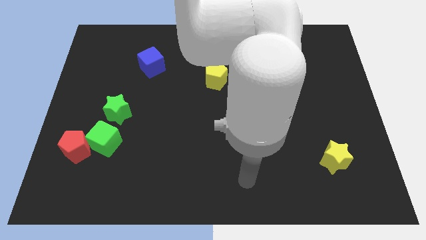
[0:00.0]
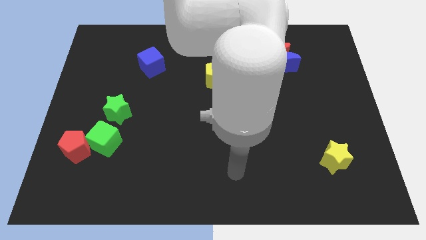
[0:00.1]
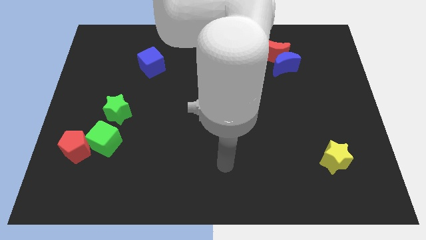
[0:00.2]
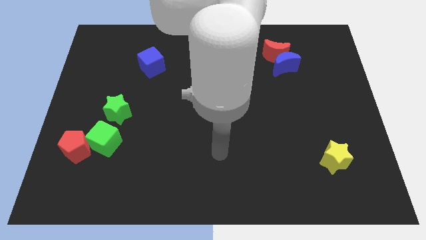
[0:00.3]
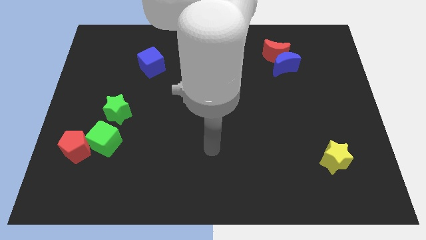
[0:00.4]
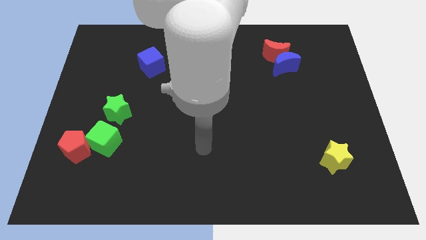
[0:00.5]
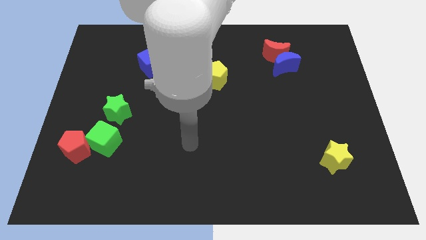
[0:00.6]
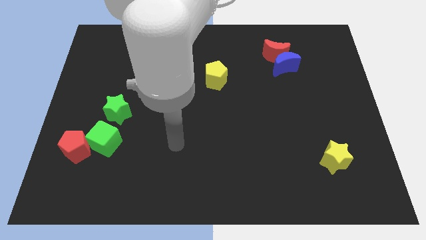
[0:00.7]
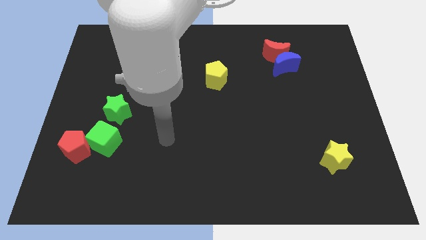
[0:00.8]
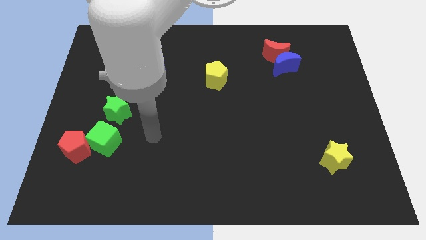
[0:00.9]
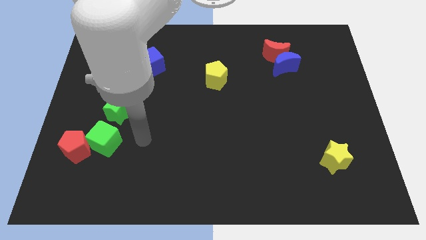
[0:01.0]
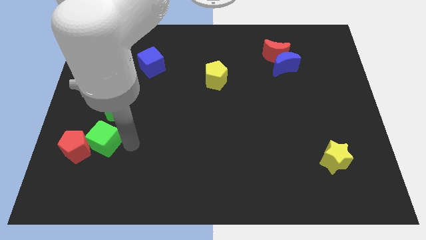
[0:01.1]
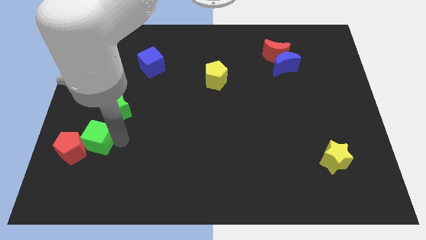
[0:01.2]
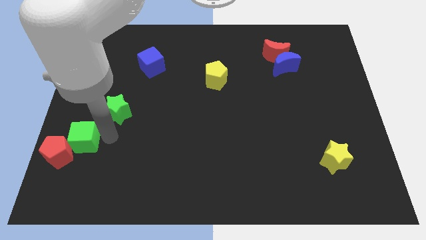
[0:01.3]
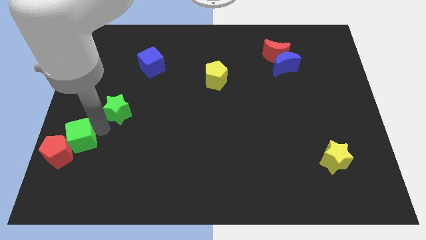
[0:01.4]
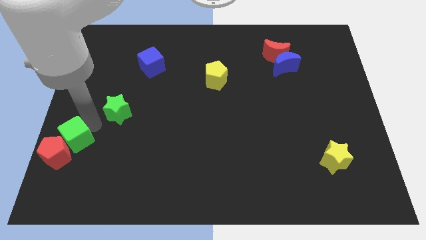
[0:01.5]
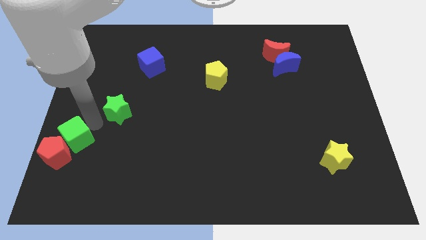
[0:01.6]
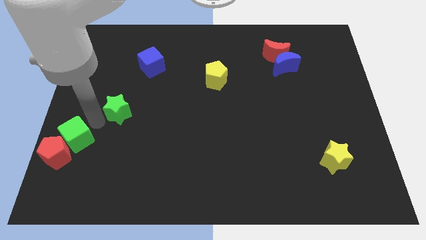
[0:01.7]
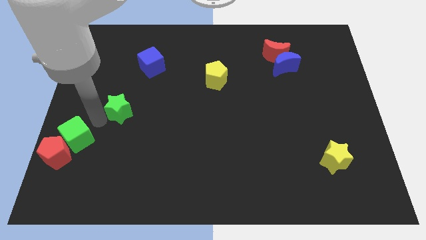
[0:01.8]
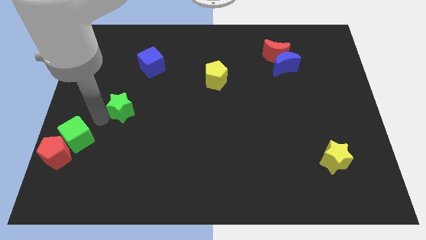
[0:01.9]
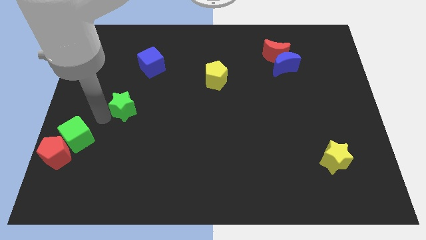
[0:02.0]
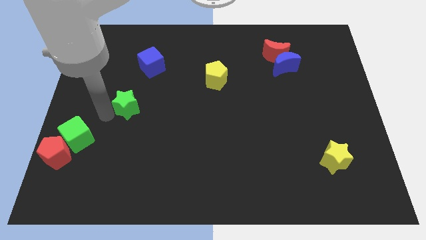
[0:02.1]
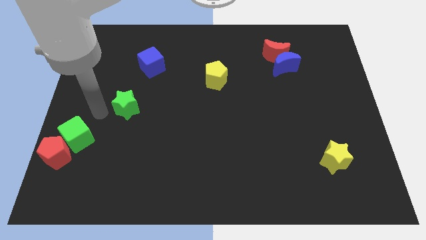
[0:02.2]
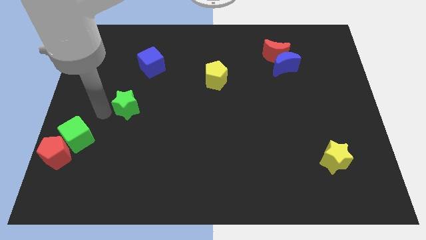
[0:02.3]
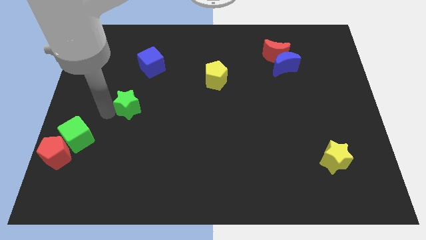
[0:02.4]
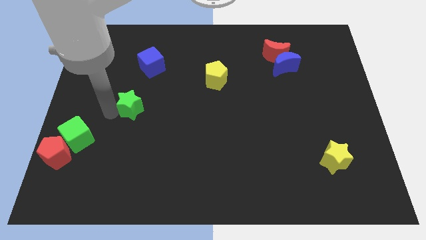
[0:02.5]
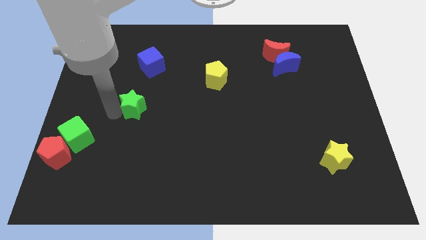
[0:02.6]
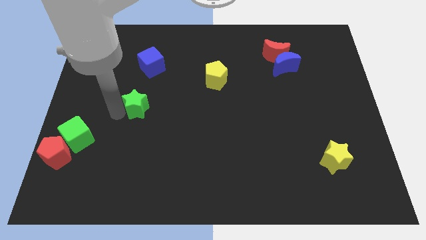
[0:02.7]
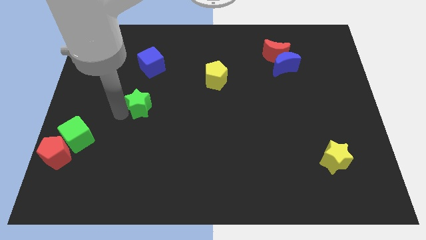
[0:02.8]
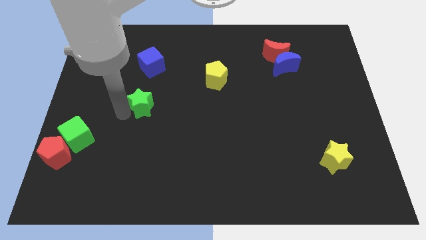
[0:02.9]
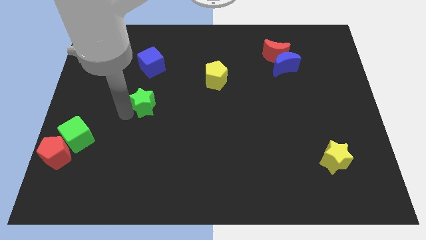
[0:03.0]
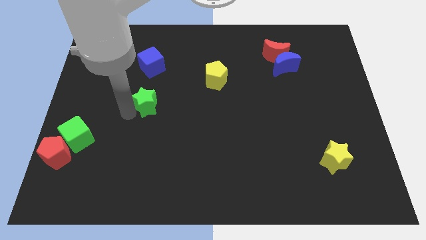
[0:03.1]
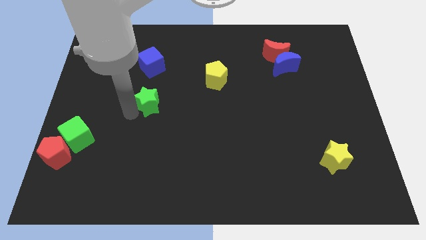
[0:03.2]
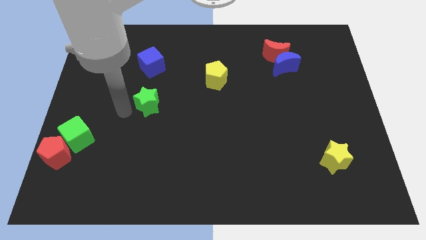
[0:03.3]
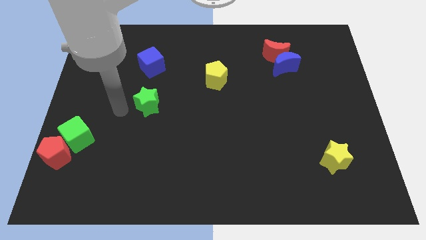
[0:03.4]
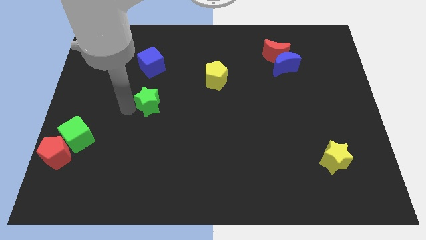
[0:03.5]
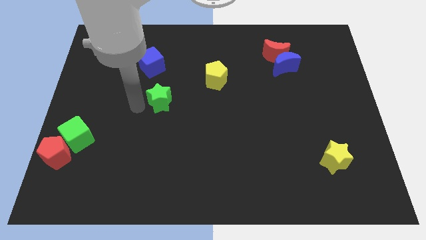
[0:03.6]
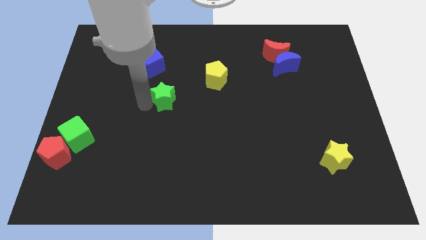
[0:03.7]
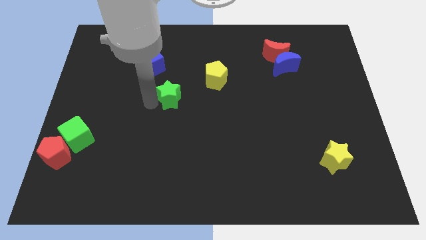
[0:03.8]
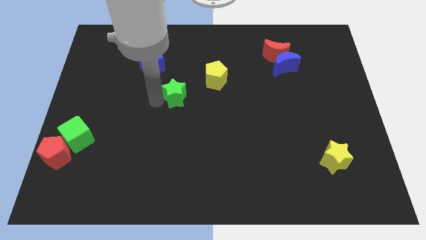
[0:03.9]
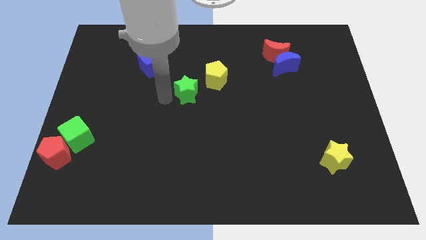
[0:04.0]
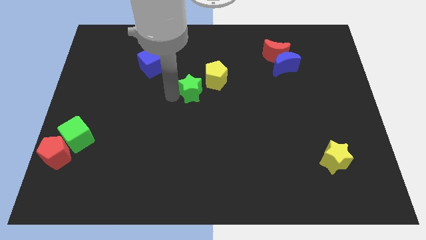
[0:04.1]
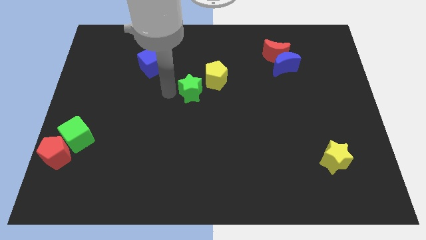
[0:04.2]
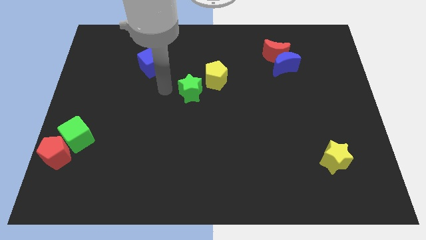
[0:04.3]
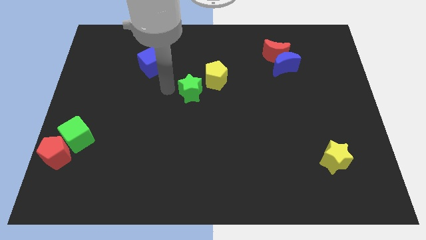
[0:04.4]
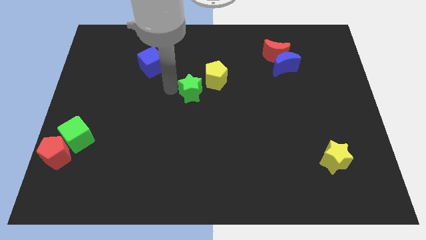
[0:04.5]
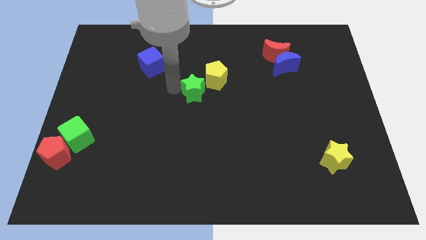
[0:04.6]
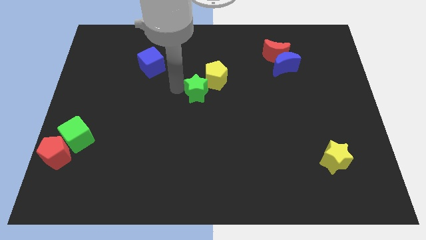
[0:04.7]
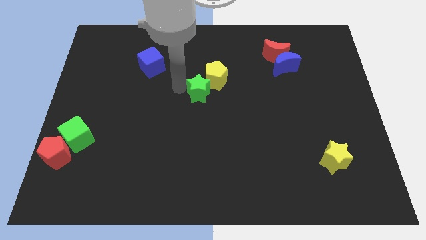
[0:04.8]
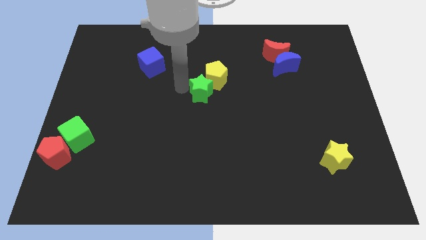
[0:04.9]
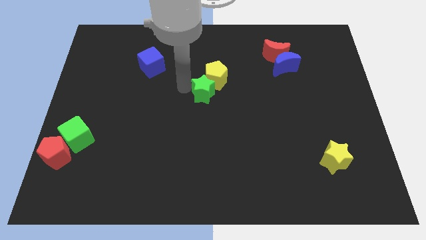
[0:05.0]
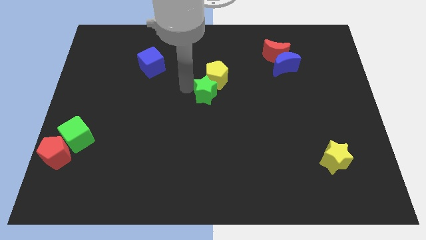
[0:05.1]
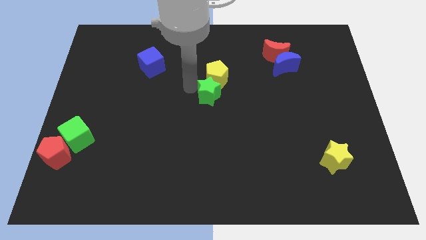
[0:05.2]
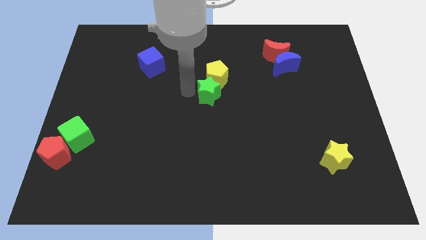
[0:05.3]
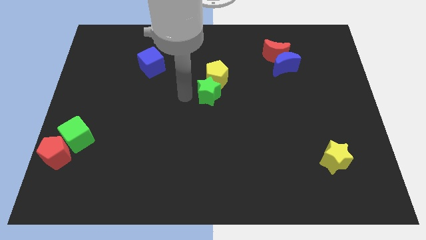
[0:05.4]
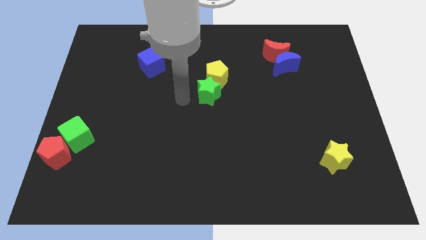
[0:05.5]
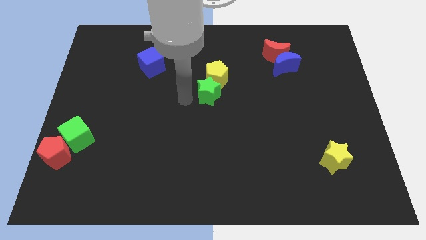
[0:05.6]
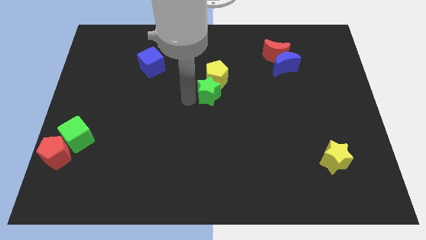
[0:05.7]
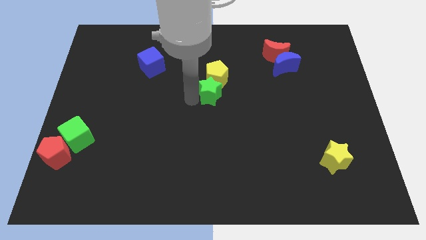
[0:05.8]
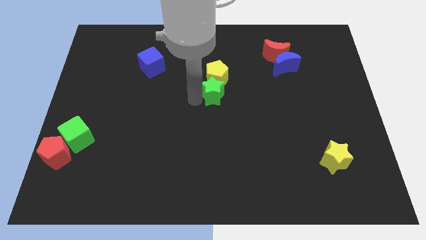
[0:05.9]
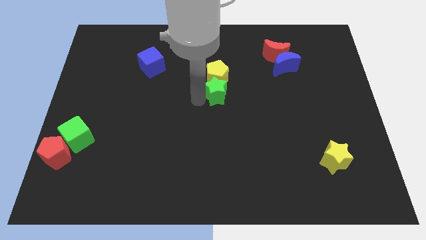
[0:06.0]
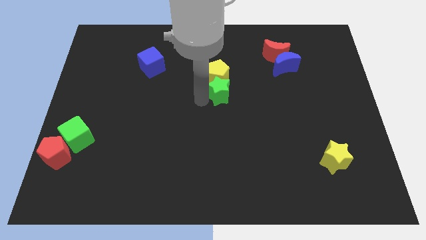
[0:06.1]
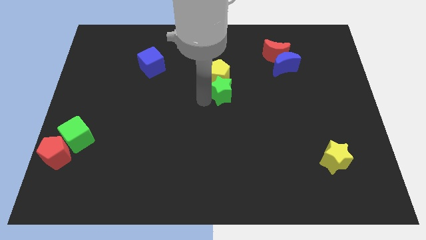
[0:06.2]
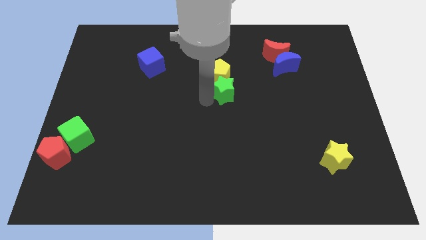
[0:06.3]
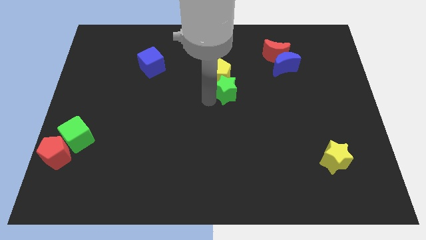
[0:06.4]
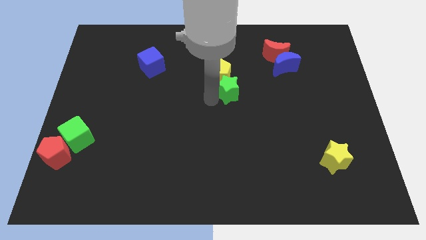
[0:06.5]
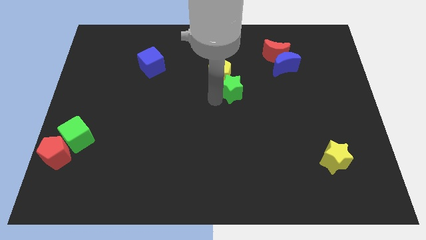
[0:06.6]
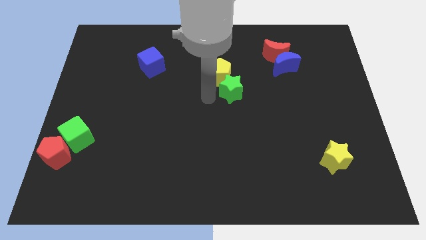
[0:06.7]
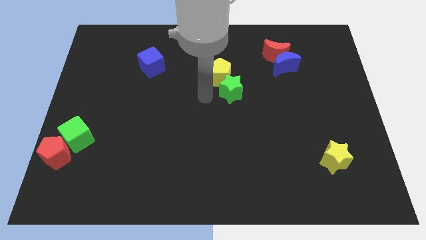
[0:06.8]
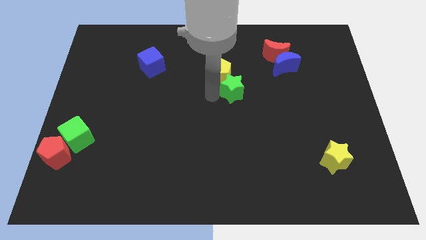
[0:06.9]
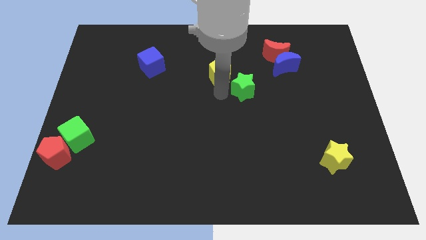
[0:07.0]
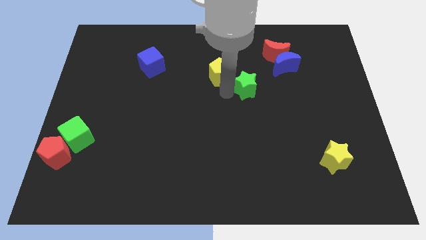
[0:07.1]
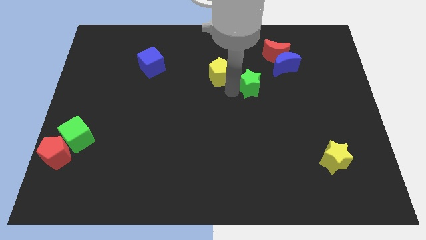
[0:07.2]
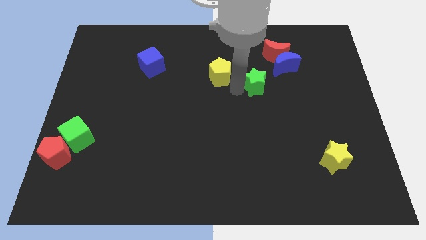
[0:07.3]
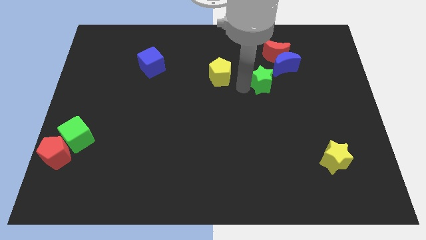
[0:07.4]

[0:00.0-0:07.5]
push the green star to the bottom side of the red moon
